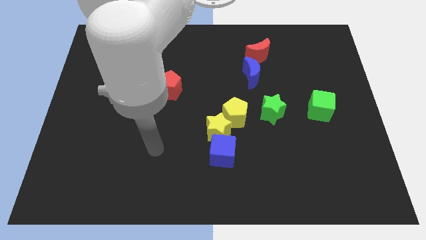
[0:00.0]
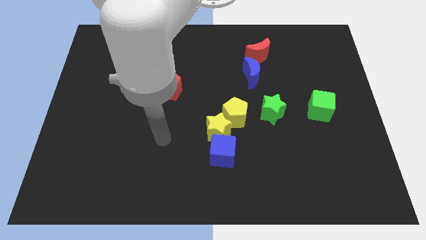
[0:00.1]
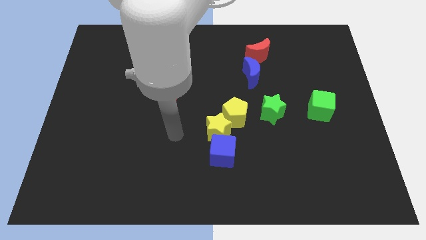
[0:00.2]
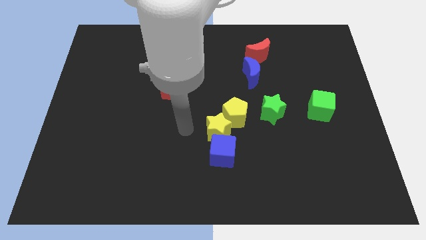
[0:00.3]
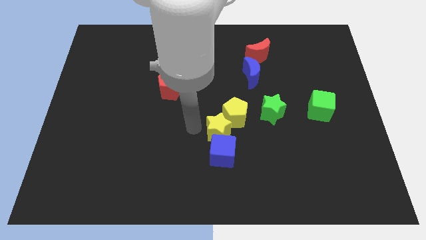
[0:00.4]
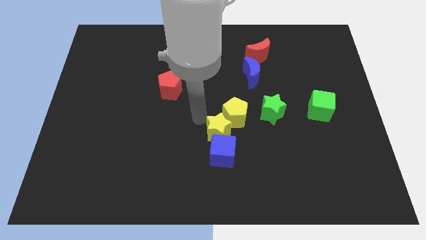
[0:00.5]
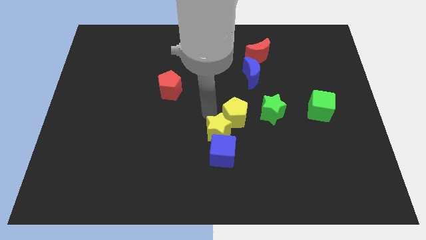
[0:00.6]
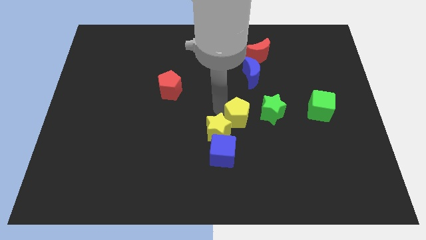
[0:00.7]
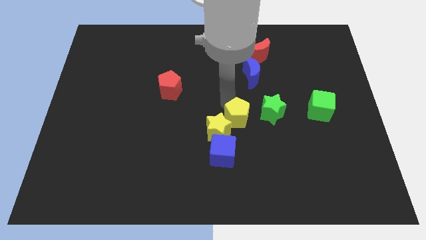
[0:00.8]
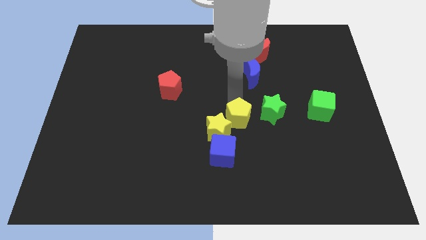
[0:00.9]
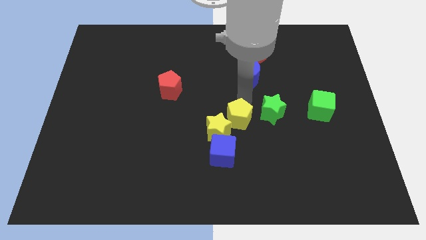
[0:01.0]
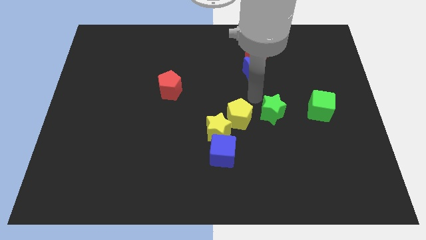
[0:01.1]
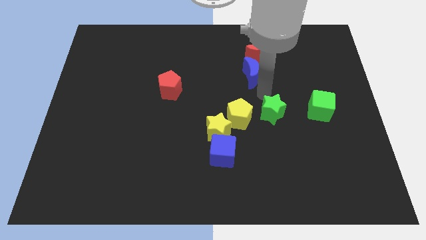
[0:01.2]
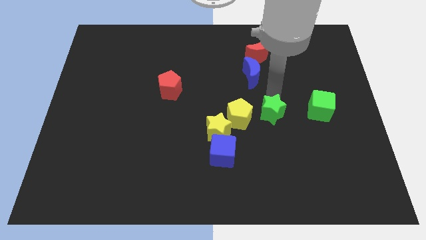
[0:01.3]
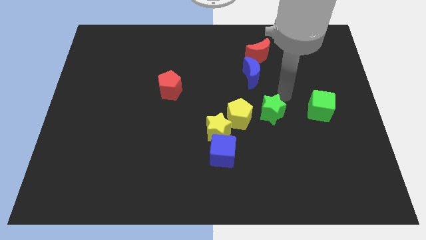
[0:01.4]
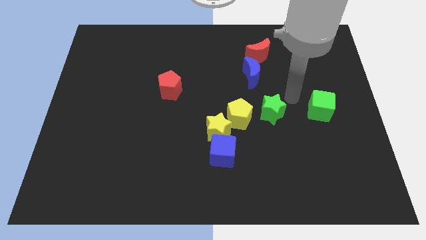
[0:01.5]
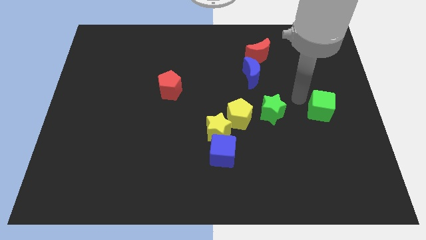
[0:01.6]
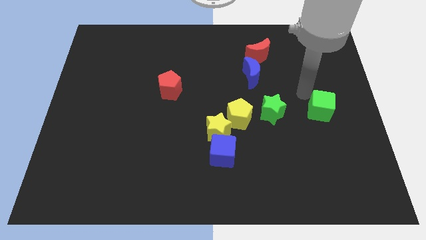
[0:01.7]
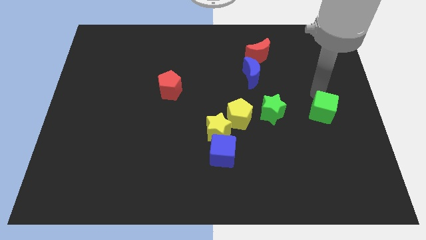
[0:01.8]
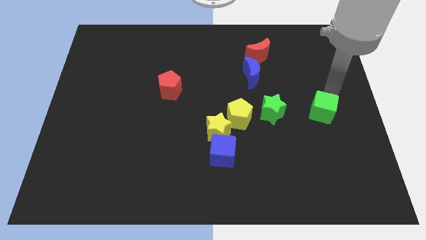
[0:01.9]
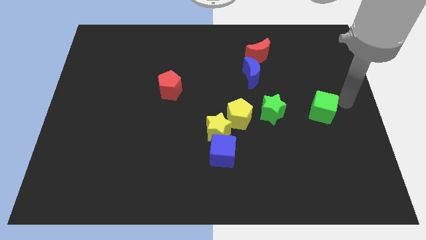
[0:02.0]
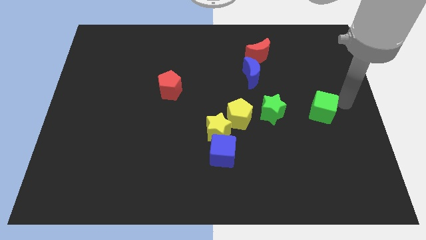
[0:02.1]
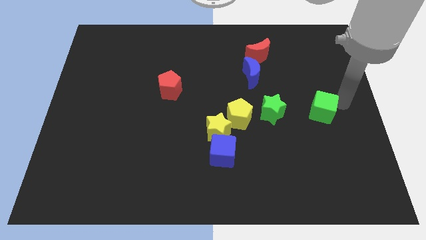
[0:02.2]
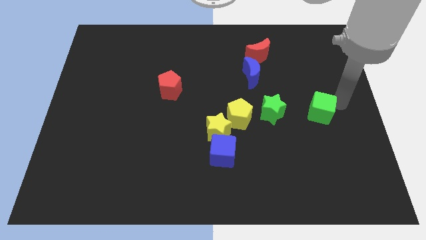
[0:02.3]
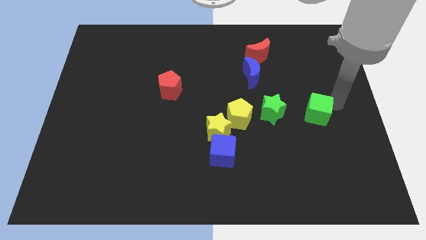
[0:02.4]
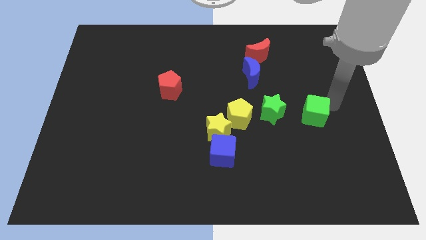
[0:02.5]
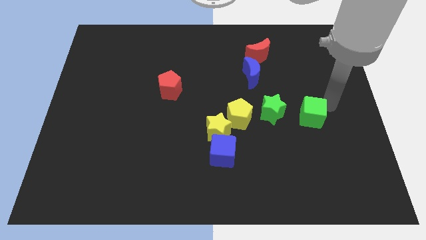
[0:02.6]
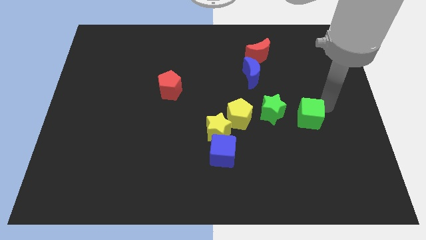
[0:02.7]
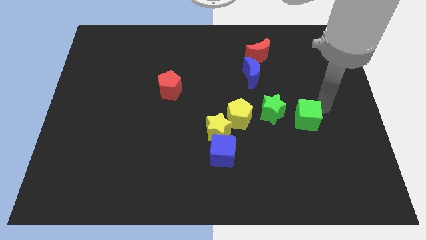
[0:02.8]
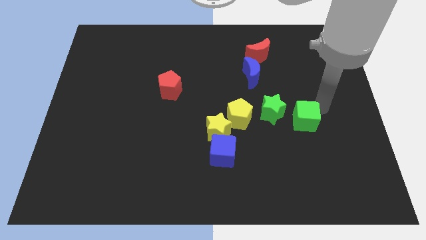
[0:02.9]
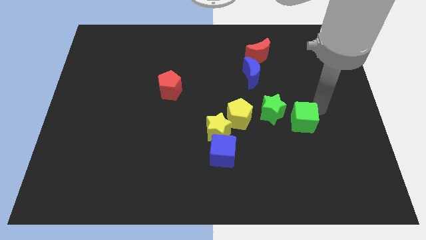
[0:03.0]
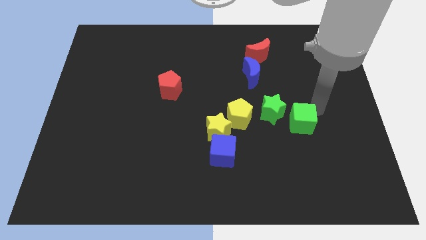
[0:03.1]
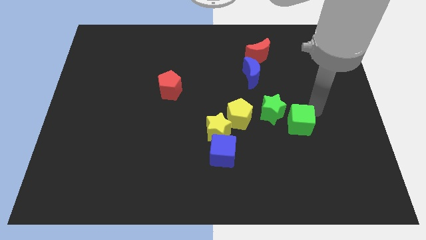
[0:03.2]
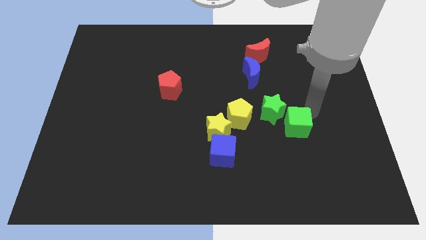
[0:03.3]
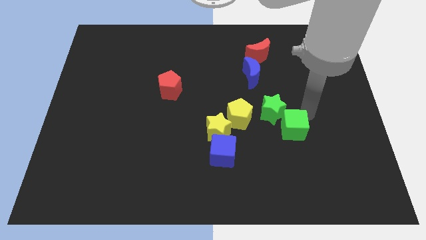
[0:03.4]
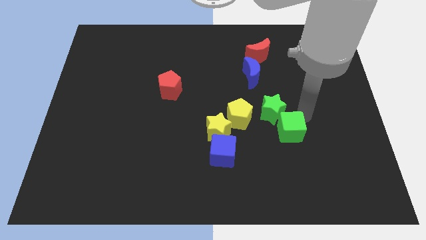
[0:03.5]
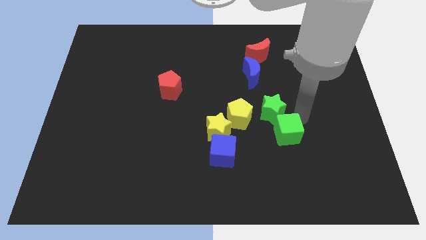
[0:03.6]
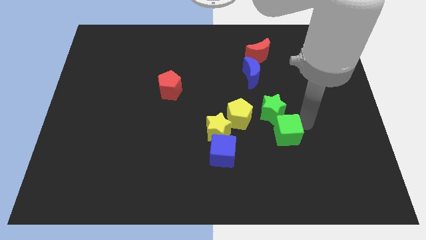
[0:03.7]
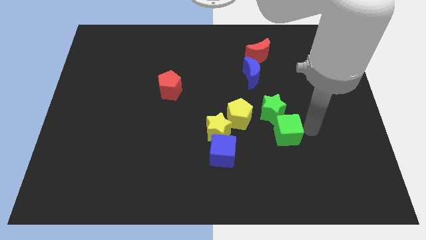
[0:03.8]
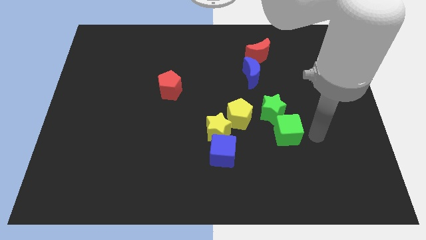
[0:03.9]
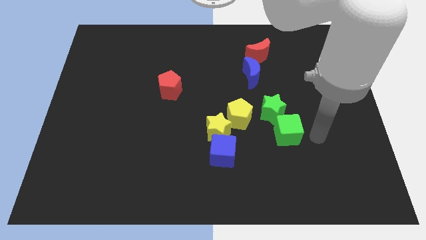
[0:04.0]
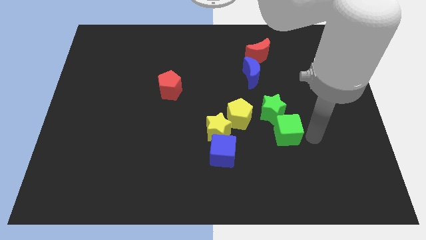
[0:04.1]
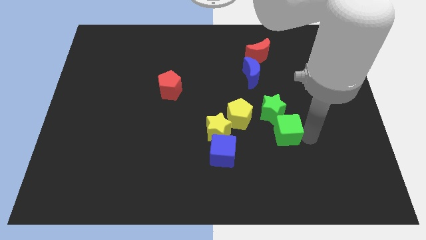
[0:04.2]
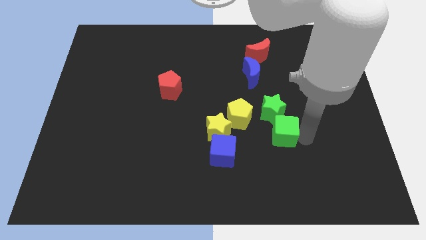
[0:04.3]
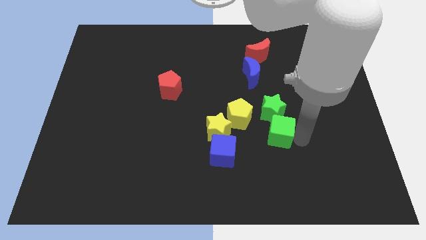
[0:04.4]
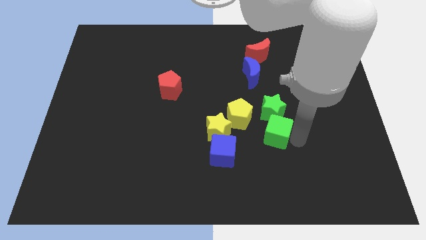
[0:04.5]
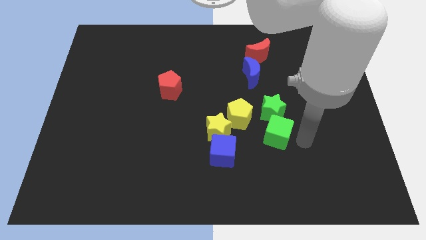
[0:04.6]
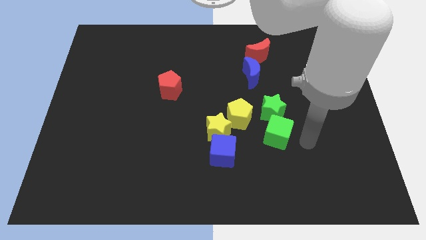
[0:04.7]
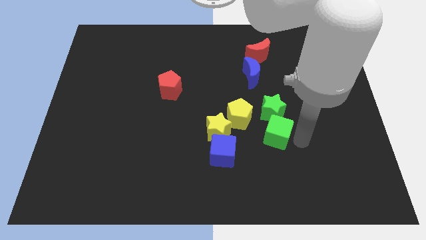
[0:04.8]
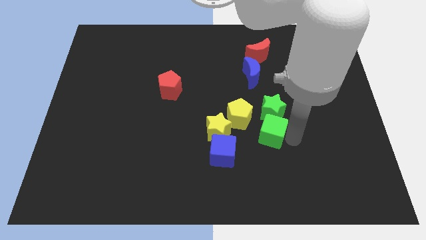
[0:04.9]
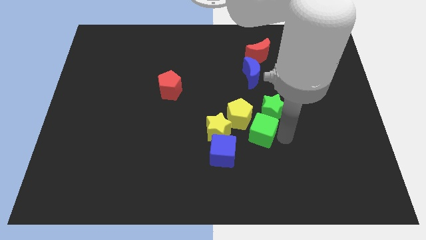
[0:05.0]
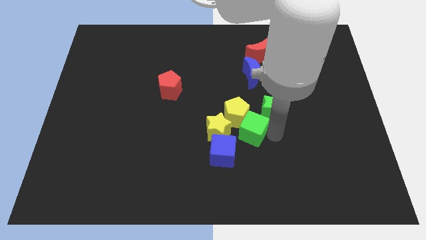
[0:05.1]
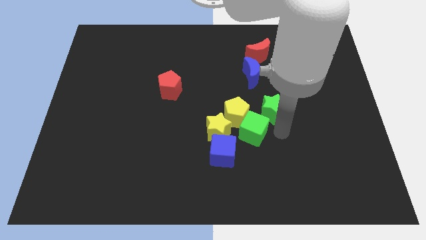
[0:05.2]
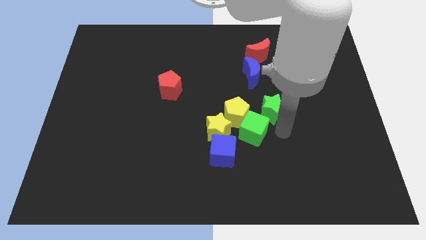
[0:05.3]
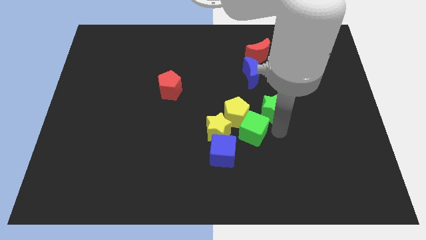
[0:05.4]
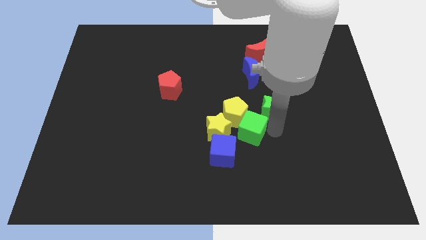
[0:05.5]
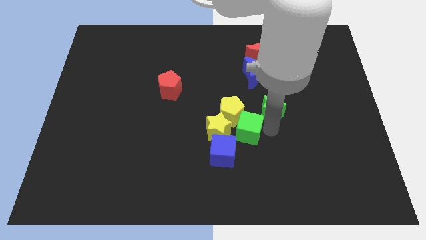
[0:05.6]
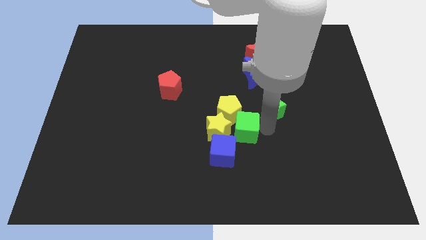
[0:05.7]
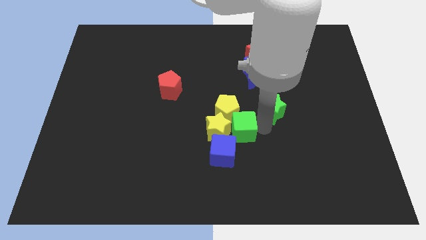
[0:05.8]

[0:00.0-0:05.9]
move the green cube towards the yellow star

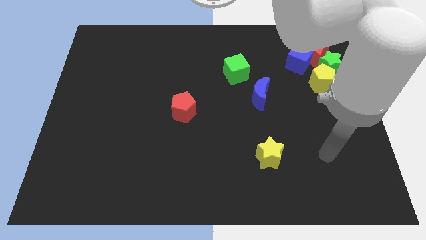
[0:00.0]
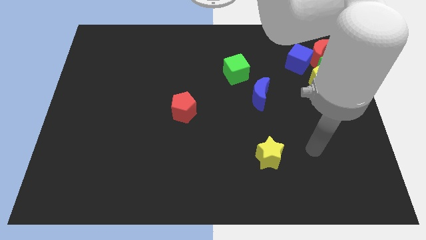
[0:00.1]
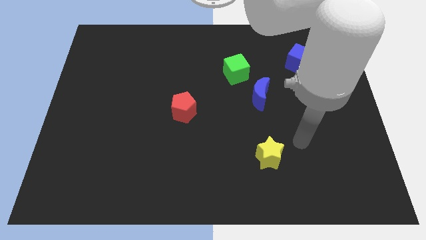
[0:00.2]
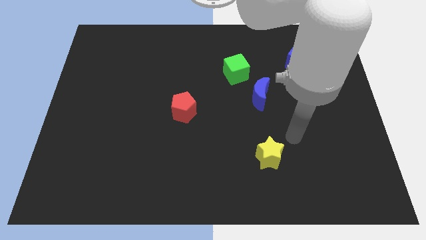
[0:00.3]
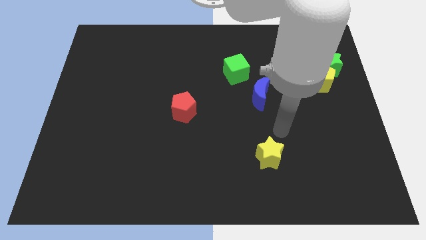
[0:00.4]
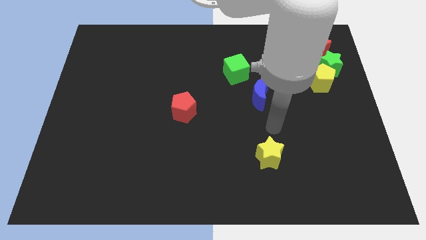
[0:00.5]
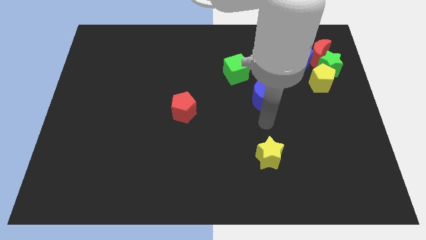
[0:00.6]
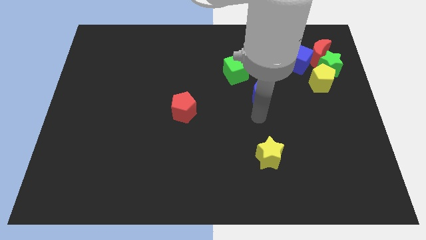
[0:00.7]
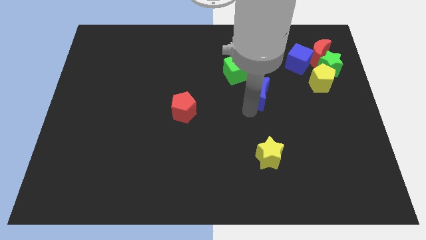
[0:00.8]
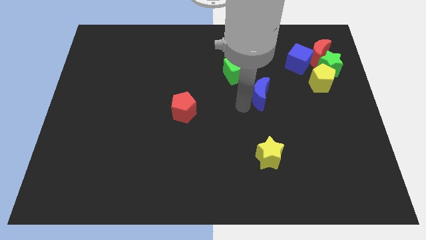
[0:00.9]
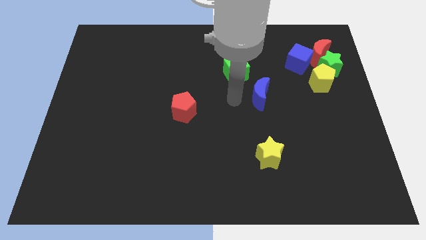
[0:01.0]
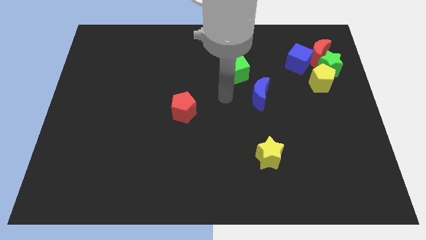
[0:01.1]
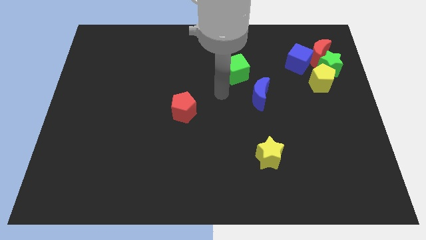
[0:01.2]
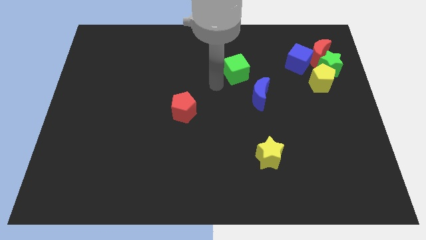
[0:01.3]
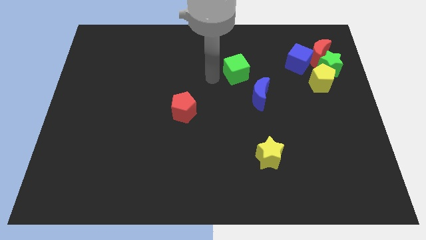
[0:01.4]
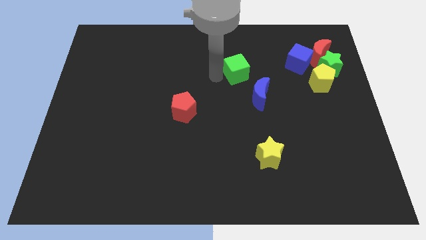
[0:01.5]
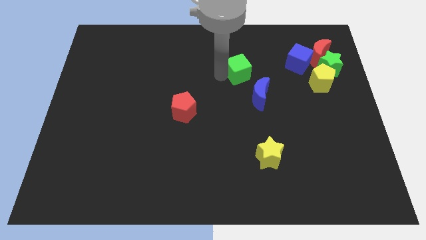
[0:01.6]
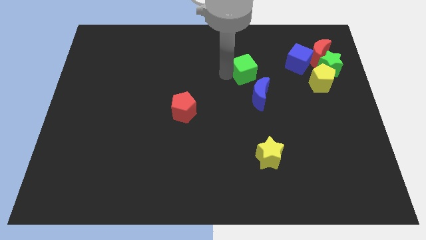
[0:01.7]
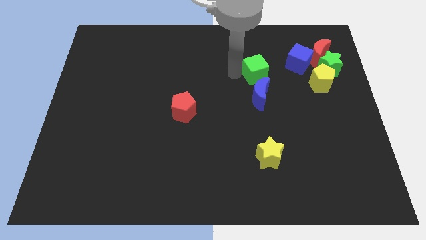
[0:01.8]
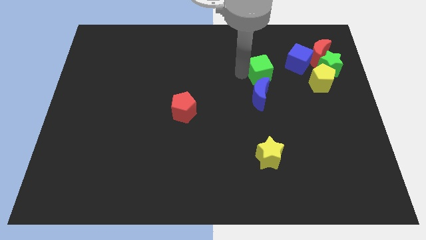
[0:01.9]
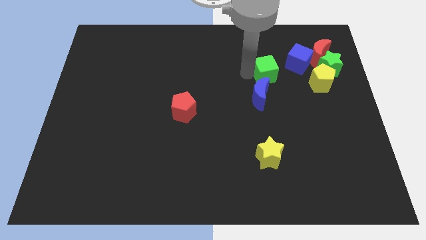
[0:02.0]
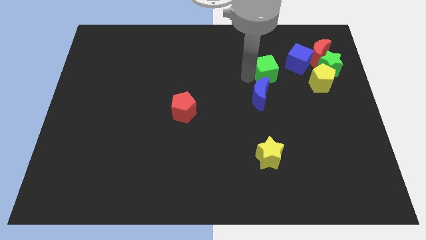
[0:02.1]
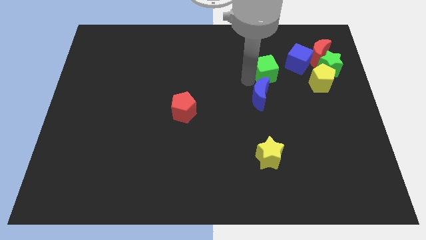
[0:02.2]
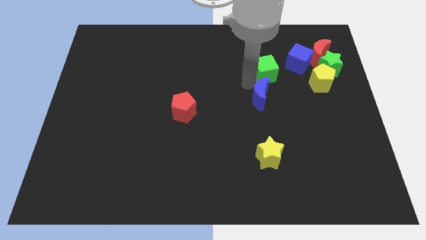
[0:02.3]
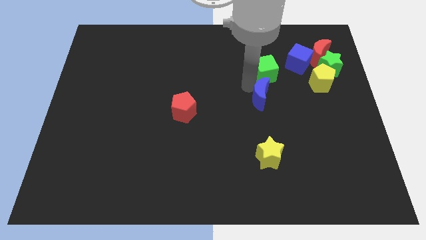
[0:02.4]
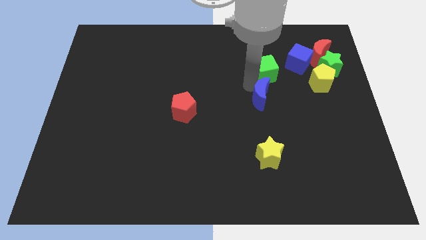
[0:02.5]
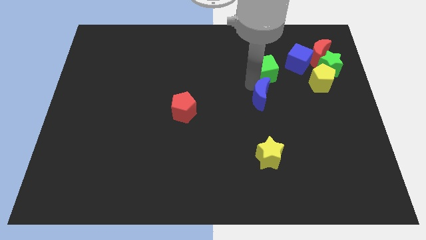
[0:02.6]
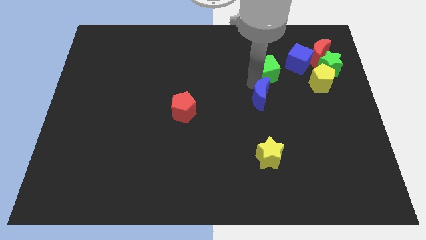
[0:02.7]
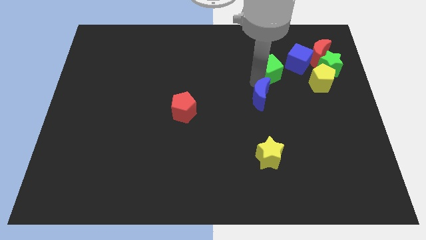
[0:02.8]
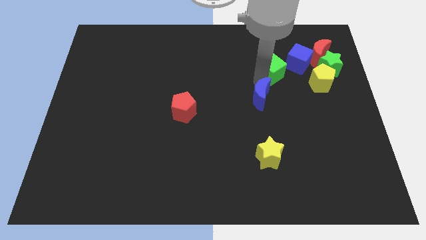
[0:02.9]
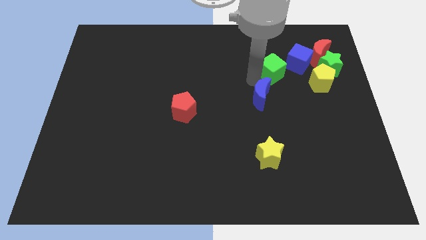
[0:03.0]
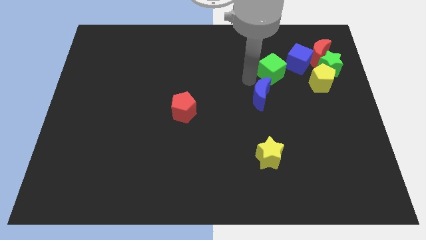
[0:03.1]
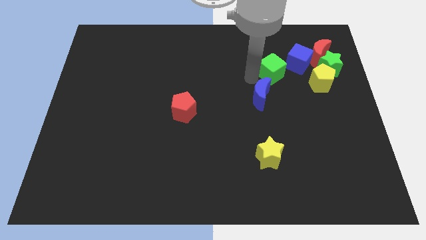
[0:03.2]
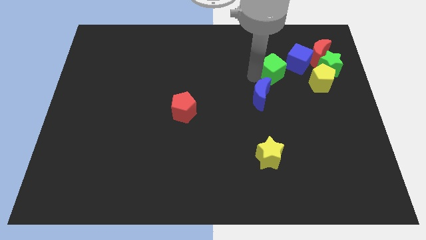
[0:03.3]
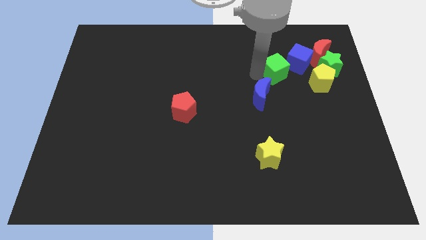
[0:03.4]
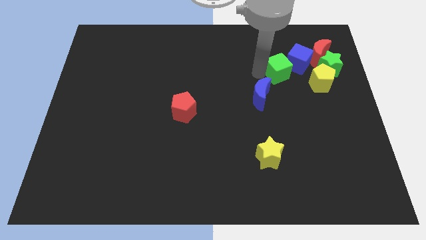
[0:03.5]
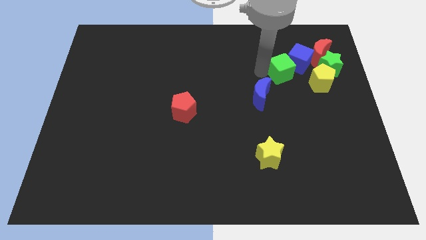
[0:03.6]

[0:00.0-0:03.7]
put the green cube close to the blue cube
